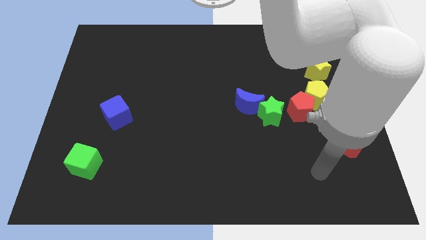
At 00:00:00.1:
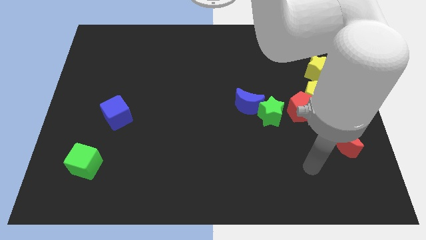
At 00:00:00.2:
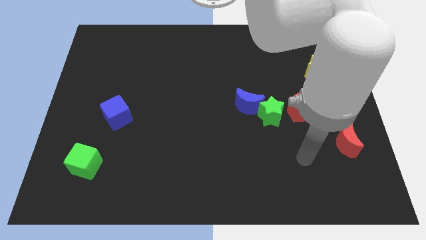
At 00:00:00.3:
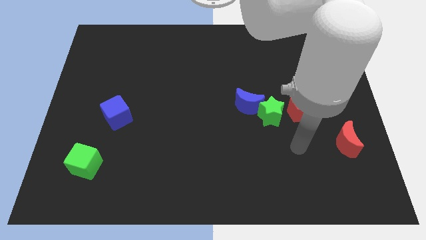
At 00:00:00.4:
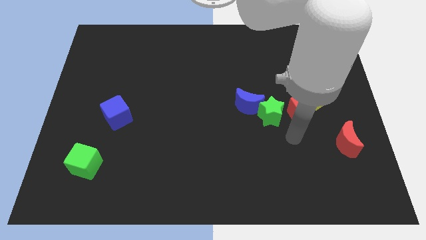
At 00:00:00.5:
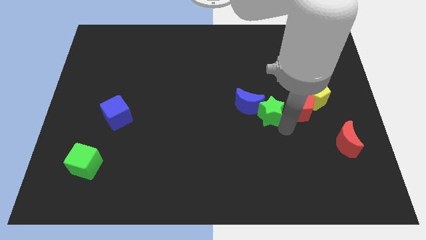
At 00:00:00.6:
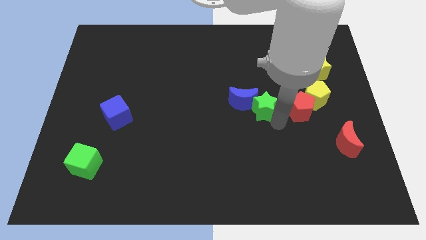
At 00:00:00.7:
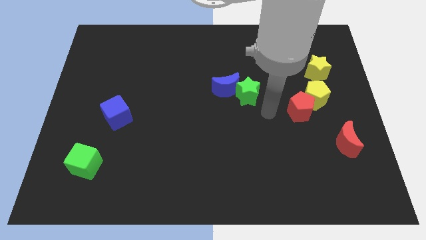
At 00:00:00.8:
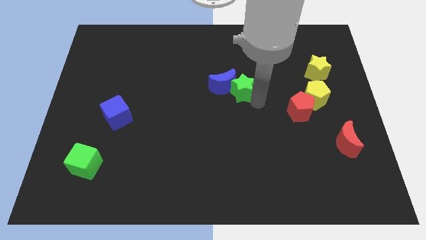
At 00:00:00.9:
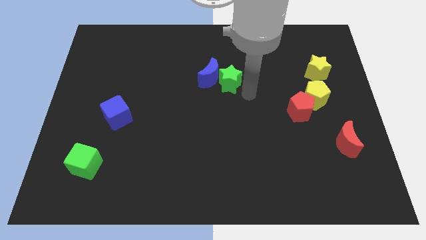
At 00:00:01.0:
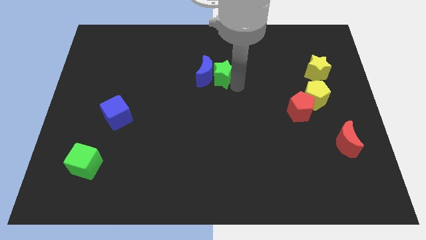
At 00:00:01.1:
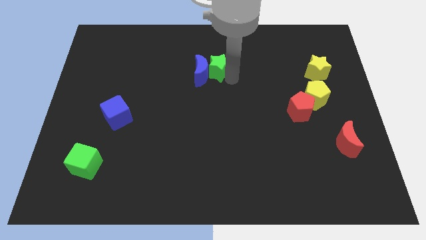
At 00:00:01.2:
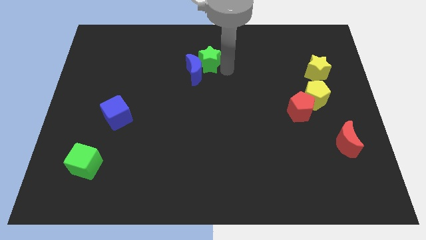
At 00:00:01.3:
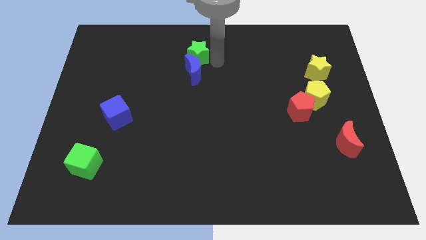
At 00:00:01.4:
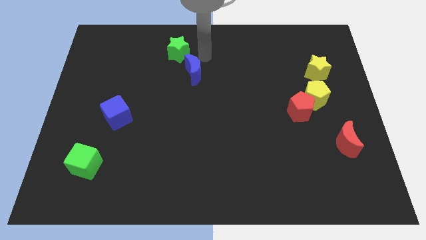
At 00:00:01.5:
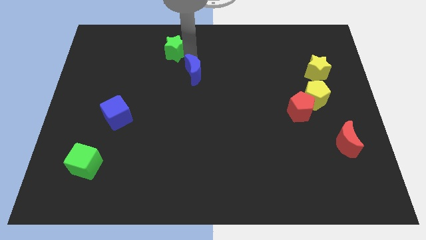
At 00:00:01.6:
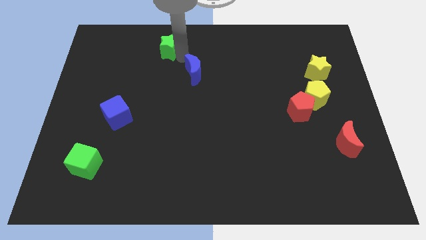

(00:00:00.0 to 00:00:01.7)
separate the blue moon from the green star

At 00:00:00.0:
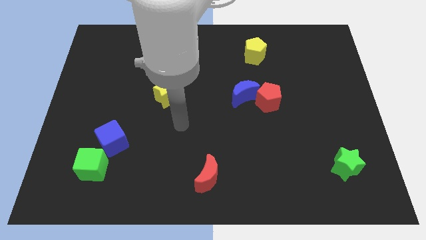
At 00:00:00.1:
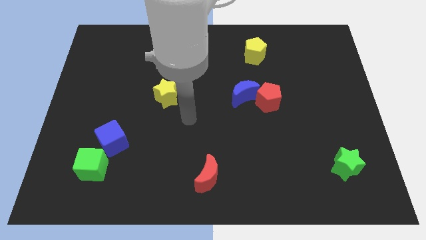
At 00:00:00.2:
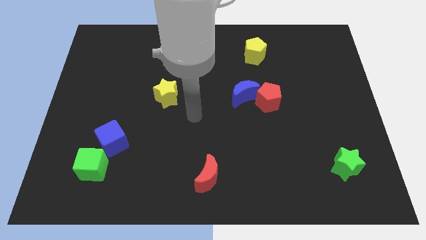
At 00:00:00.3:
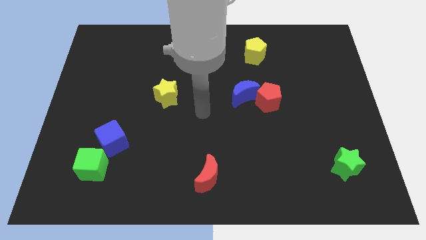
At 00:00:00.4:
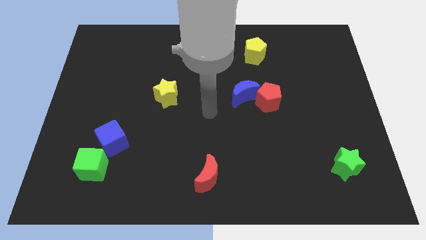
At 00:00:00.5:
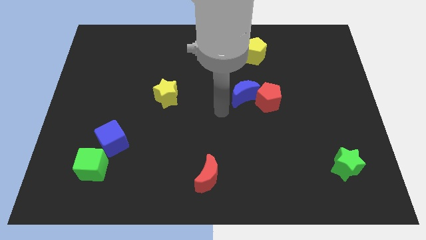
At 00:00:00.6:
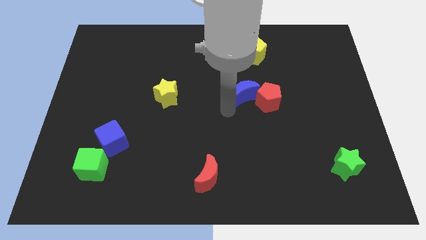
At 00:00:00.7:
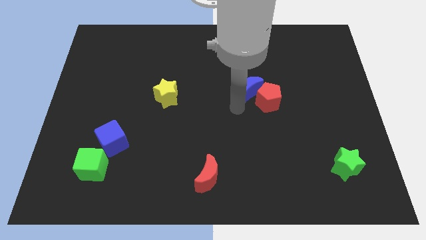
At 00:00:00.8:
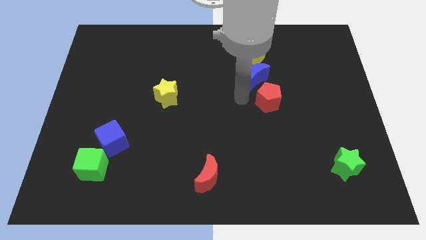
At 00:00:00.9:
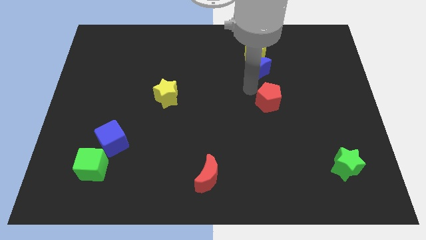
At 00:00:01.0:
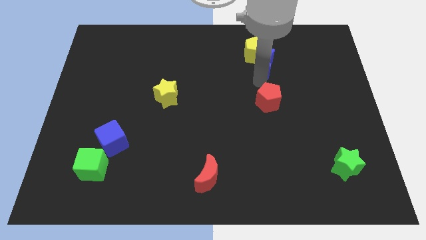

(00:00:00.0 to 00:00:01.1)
pull the red pentagon apart from the blue moon

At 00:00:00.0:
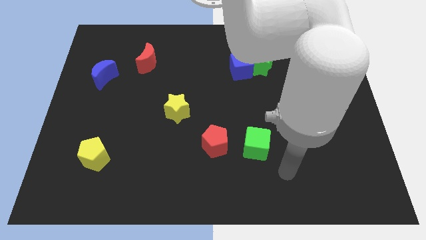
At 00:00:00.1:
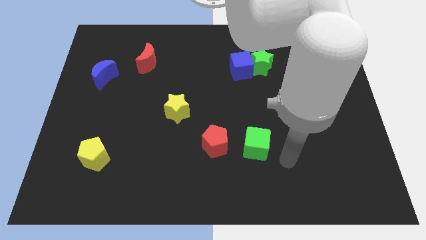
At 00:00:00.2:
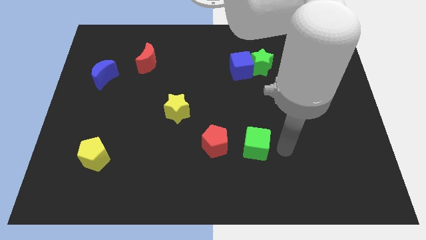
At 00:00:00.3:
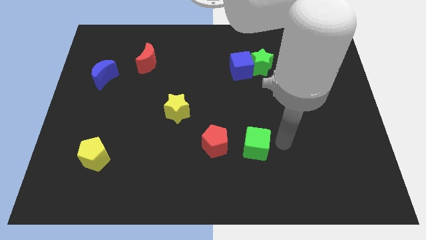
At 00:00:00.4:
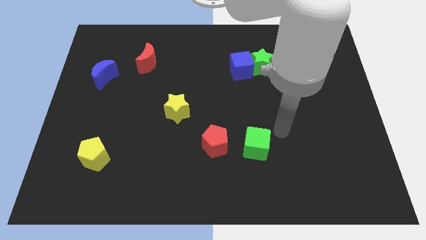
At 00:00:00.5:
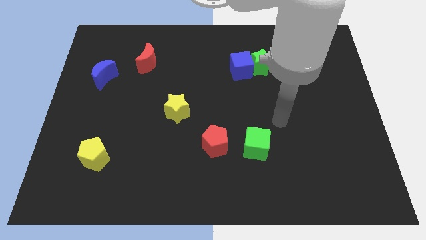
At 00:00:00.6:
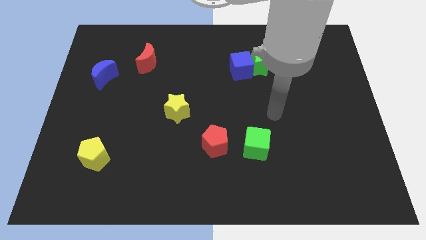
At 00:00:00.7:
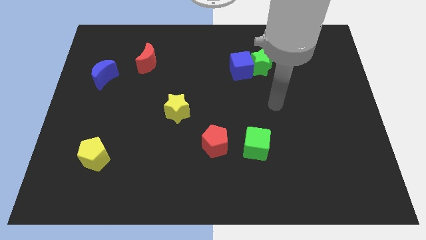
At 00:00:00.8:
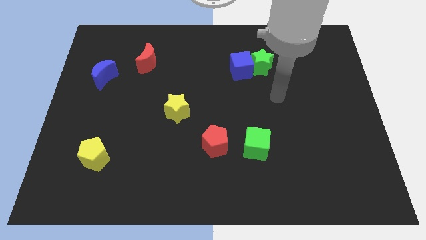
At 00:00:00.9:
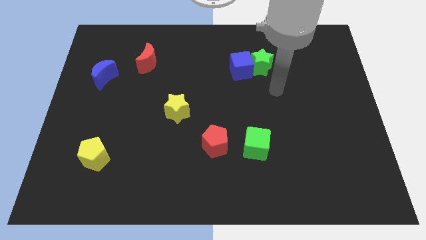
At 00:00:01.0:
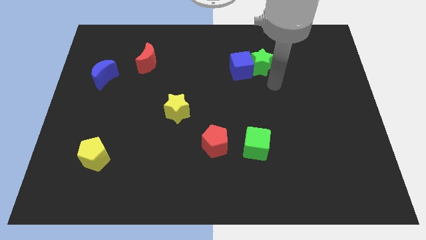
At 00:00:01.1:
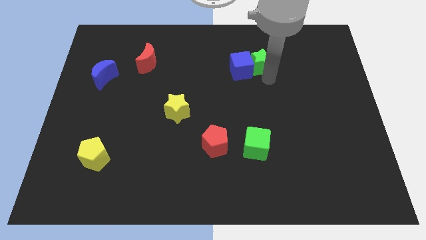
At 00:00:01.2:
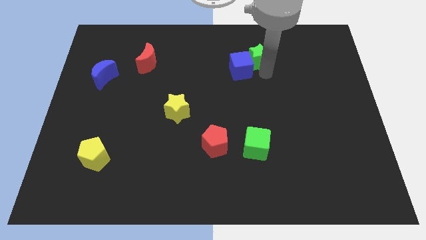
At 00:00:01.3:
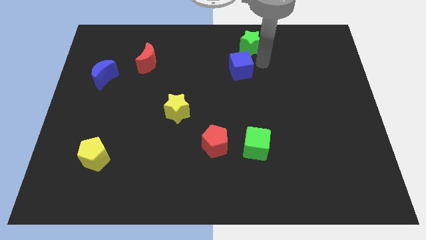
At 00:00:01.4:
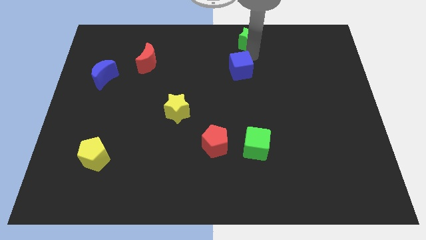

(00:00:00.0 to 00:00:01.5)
separate the blue cube from the green star

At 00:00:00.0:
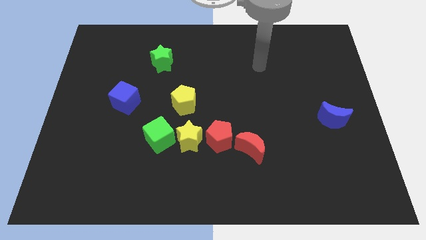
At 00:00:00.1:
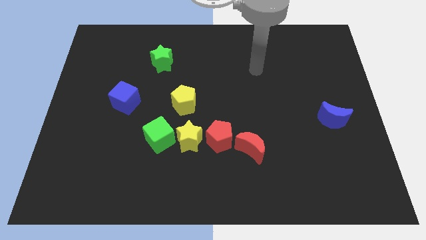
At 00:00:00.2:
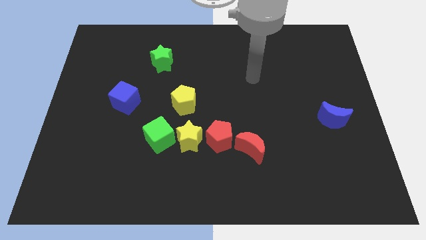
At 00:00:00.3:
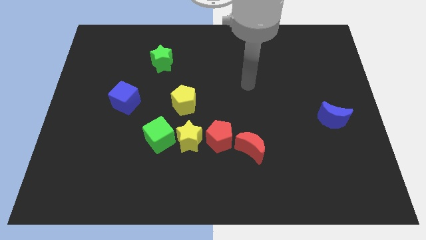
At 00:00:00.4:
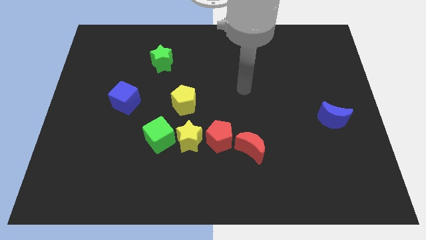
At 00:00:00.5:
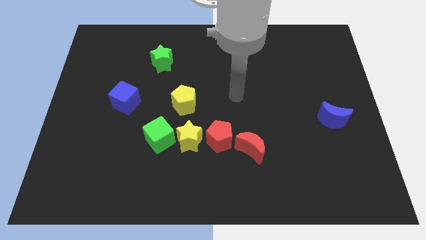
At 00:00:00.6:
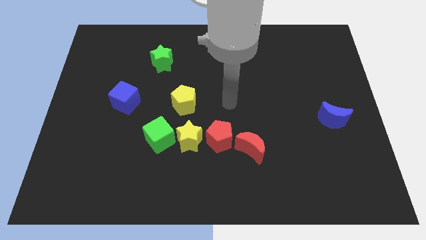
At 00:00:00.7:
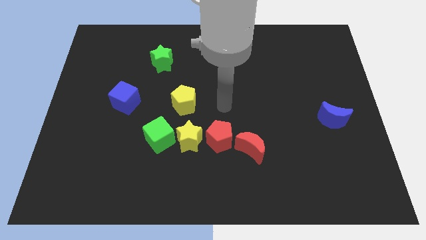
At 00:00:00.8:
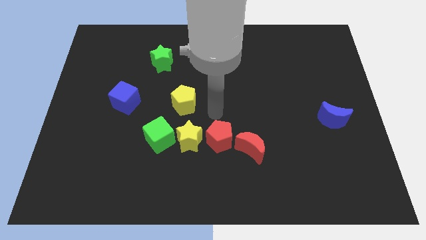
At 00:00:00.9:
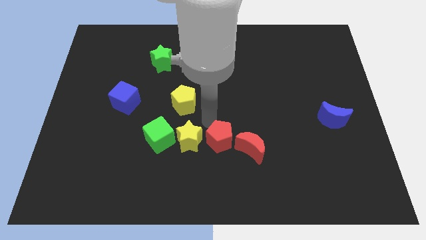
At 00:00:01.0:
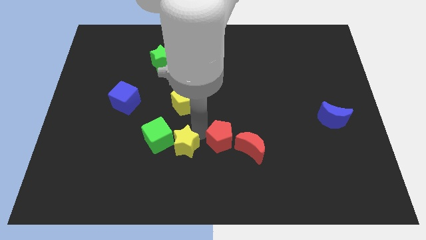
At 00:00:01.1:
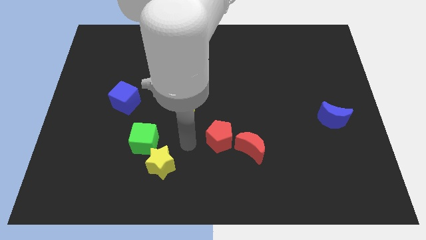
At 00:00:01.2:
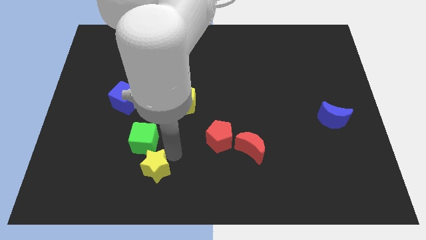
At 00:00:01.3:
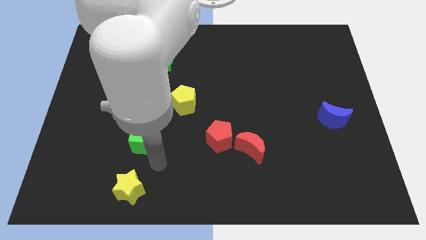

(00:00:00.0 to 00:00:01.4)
separate the green cube from the yellow star

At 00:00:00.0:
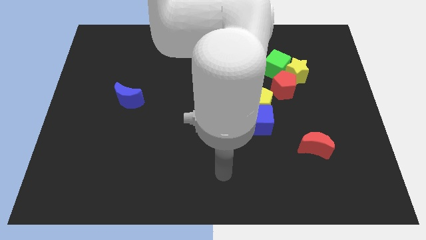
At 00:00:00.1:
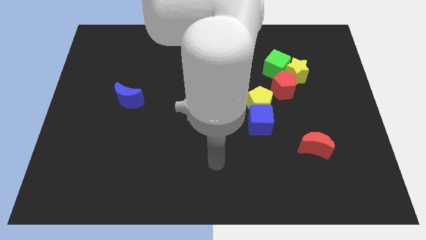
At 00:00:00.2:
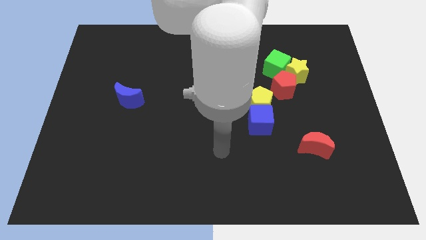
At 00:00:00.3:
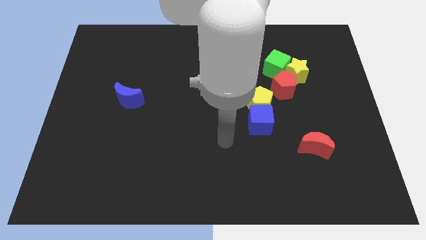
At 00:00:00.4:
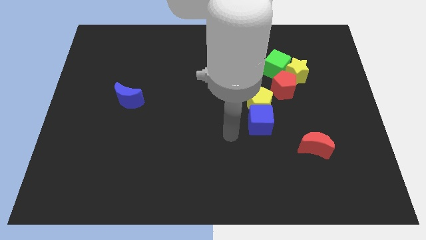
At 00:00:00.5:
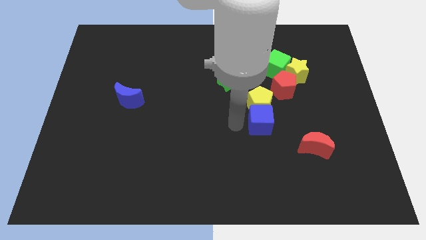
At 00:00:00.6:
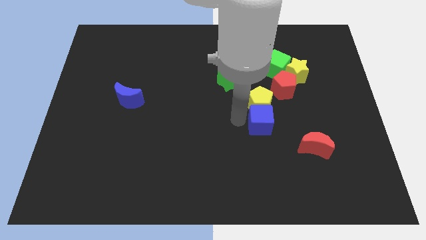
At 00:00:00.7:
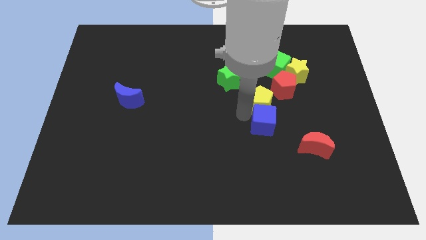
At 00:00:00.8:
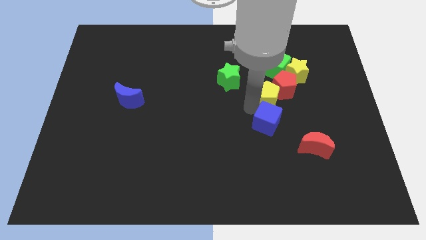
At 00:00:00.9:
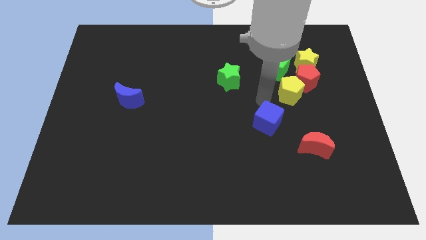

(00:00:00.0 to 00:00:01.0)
pull the blue cube apart from the yellow pentagon

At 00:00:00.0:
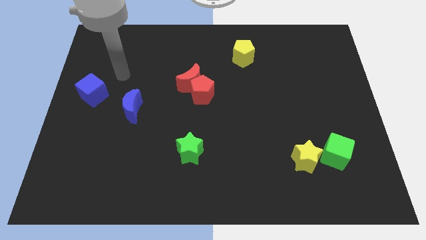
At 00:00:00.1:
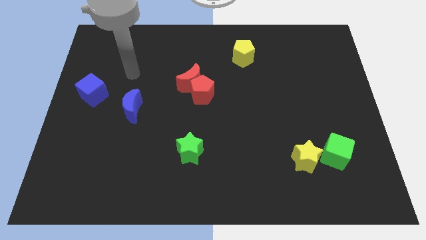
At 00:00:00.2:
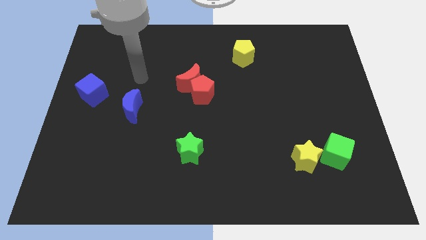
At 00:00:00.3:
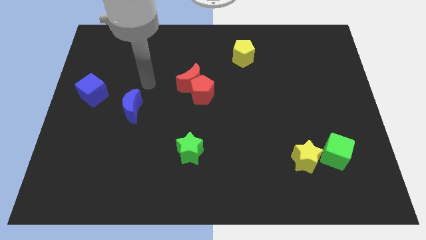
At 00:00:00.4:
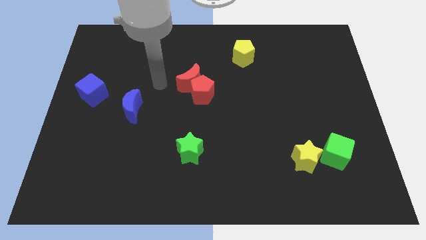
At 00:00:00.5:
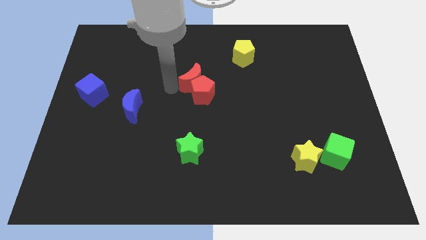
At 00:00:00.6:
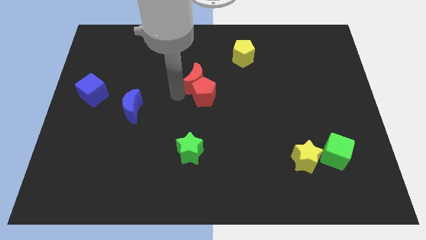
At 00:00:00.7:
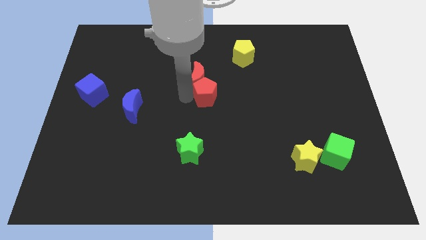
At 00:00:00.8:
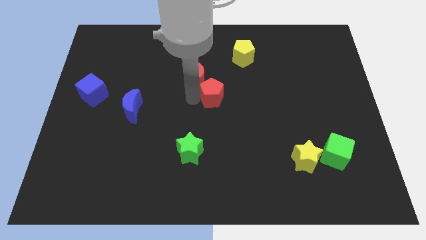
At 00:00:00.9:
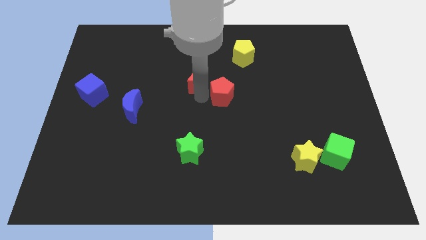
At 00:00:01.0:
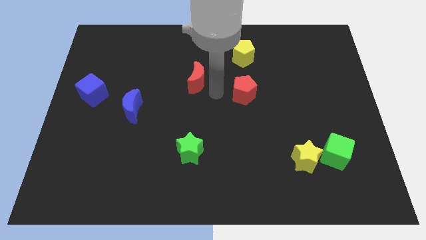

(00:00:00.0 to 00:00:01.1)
move the red moon away from the red pentagon

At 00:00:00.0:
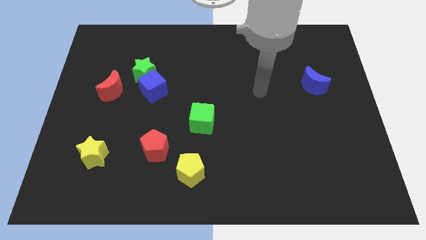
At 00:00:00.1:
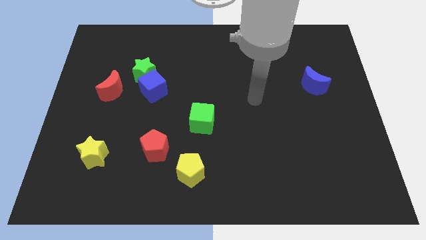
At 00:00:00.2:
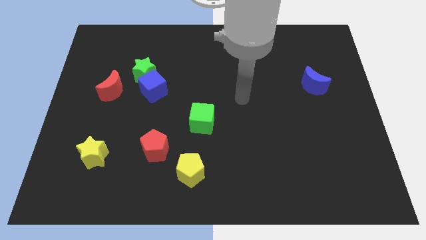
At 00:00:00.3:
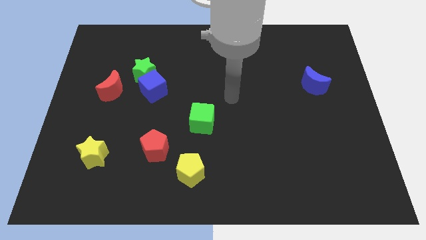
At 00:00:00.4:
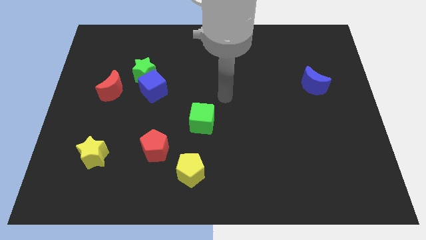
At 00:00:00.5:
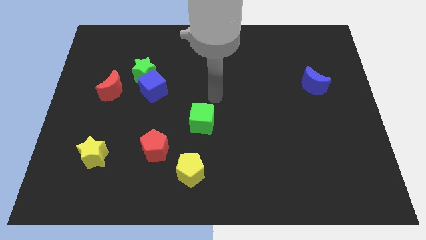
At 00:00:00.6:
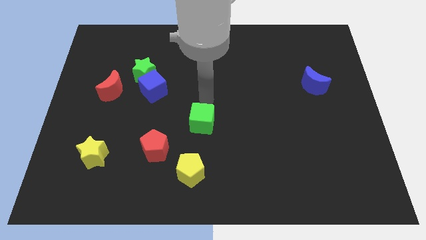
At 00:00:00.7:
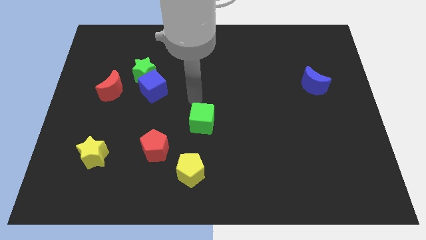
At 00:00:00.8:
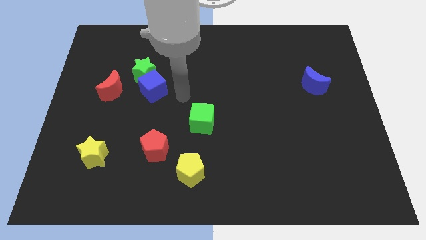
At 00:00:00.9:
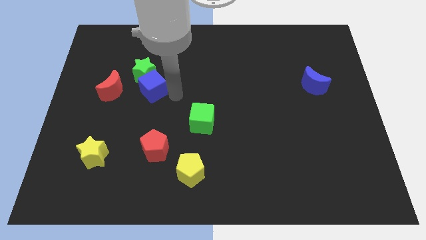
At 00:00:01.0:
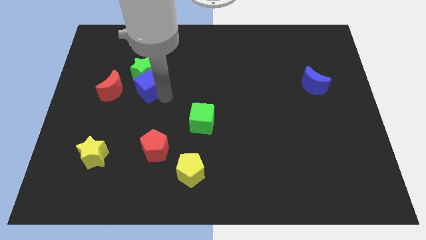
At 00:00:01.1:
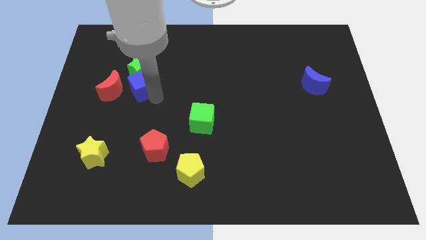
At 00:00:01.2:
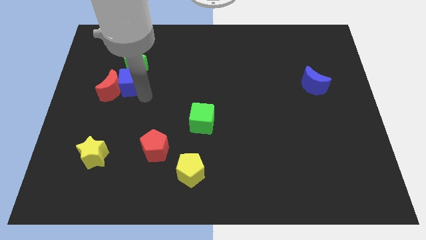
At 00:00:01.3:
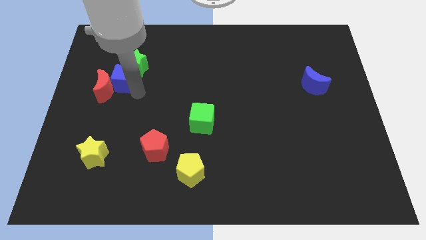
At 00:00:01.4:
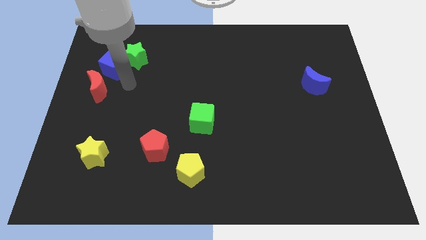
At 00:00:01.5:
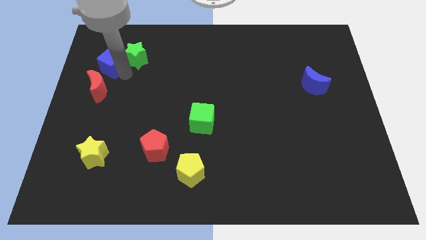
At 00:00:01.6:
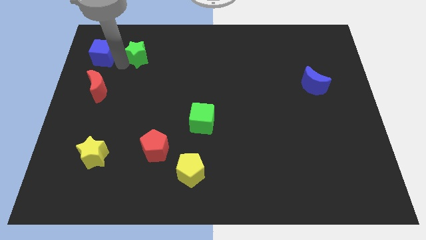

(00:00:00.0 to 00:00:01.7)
pull the green star apart from the blue cube and red moon
